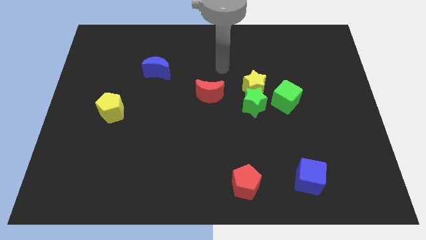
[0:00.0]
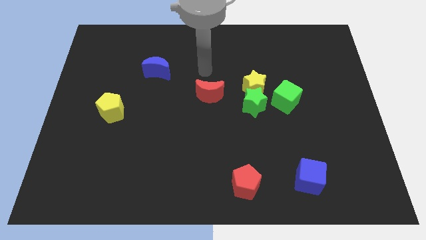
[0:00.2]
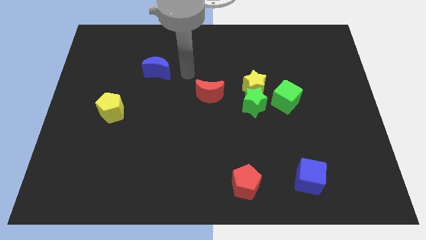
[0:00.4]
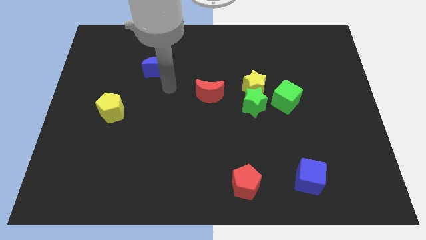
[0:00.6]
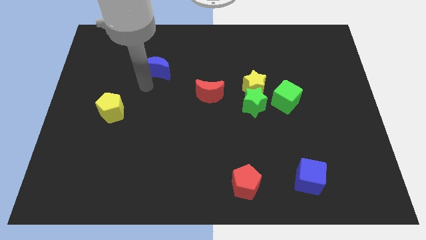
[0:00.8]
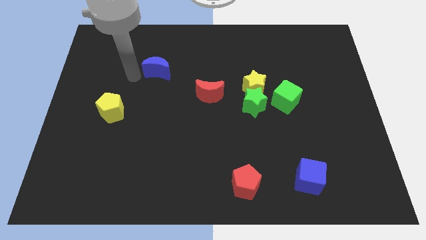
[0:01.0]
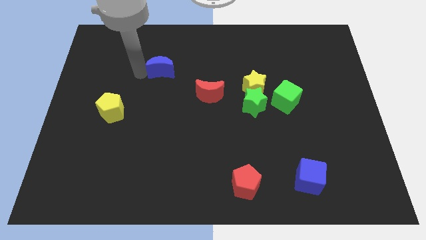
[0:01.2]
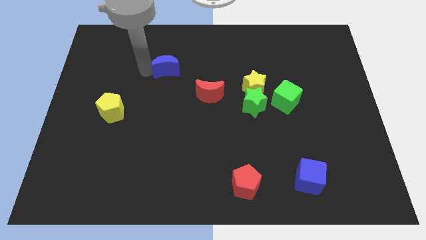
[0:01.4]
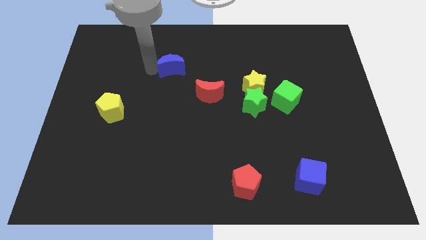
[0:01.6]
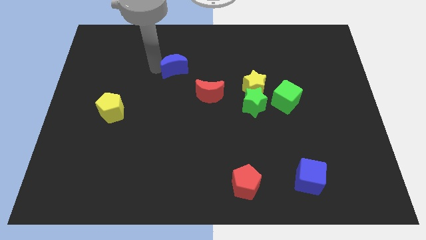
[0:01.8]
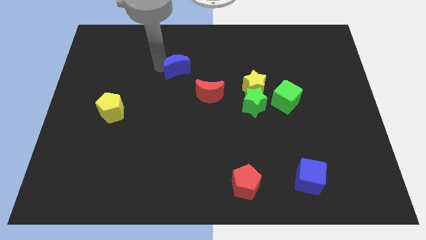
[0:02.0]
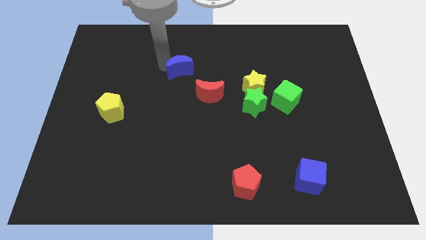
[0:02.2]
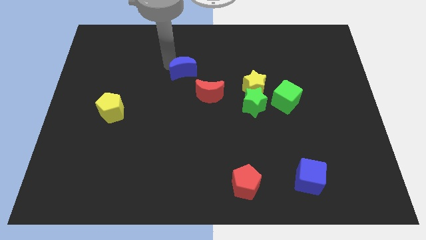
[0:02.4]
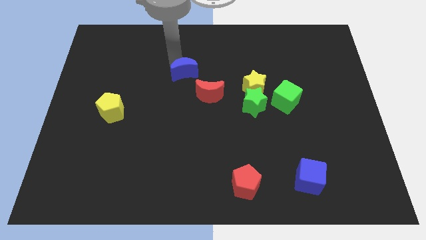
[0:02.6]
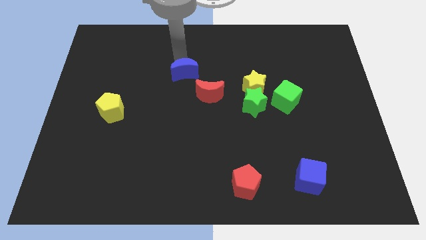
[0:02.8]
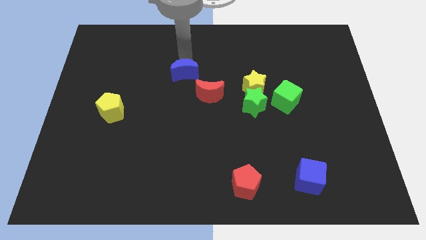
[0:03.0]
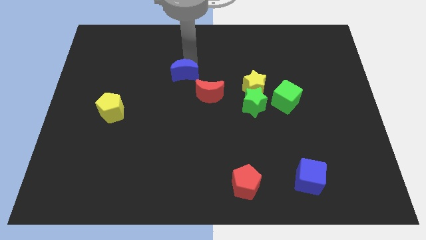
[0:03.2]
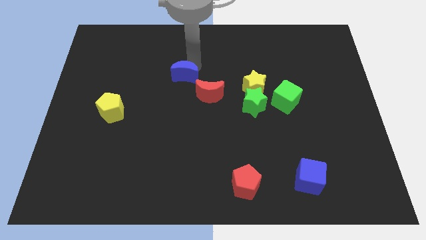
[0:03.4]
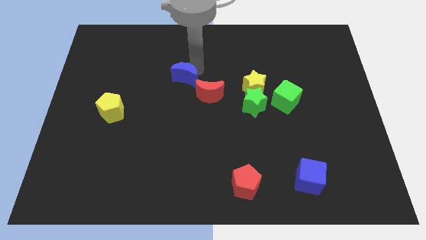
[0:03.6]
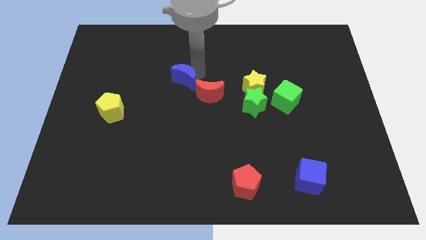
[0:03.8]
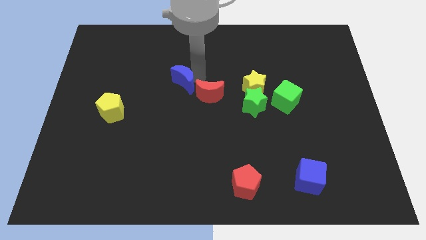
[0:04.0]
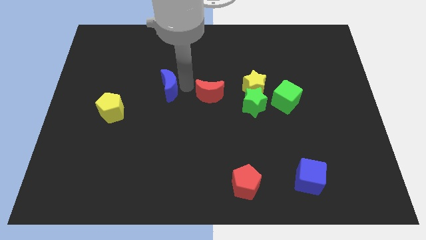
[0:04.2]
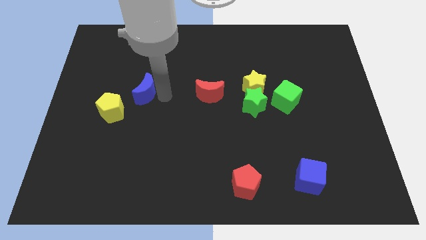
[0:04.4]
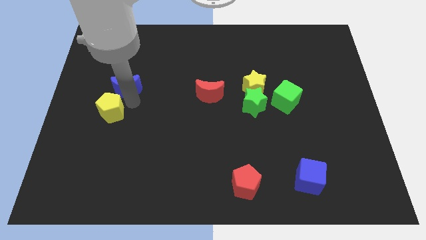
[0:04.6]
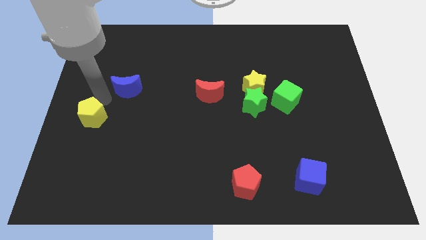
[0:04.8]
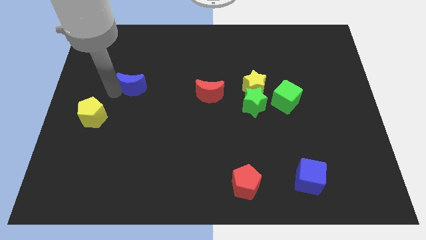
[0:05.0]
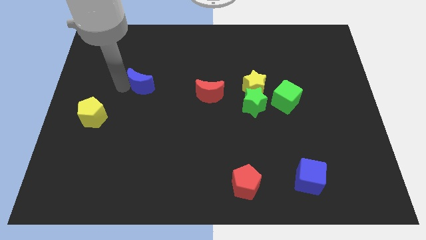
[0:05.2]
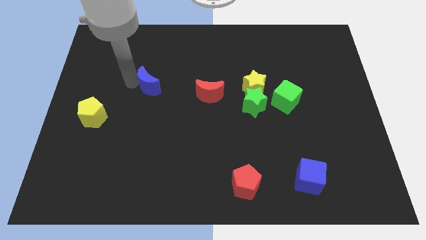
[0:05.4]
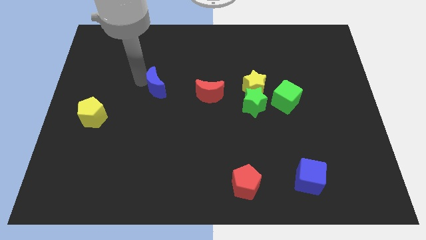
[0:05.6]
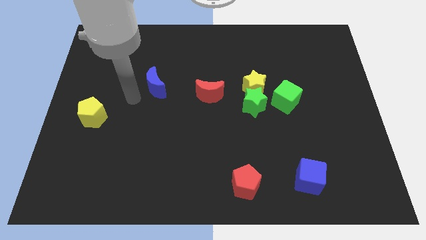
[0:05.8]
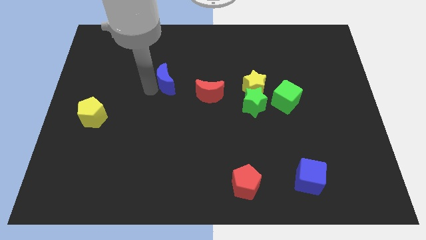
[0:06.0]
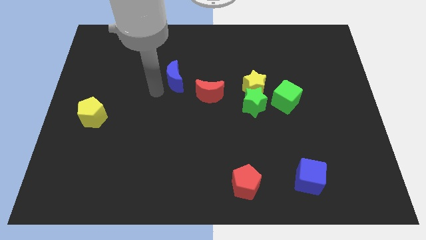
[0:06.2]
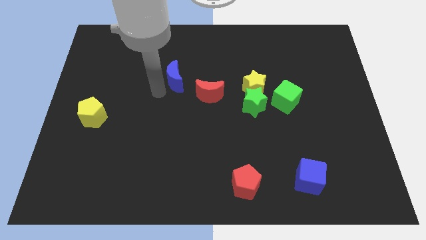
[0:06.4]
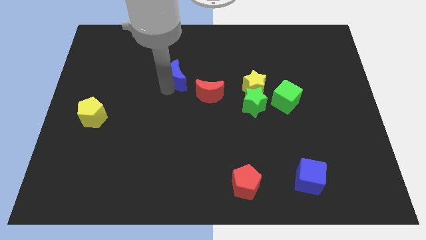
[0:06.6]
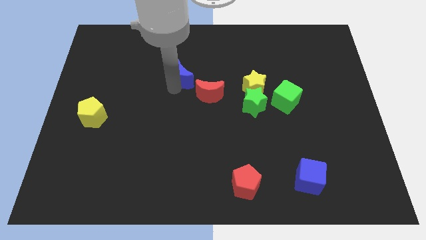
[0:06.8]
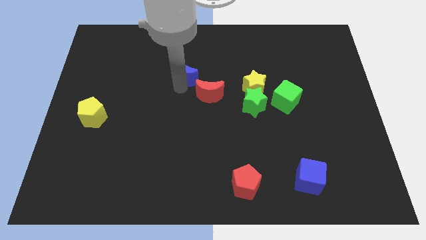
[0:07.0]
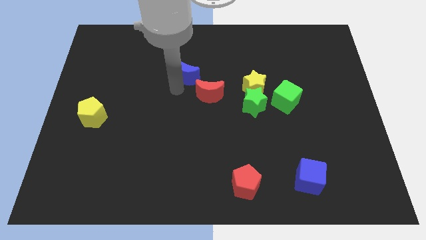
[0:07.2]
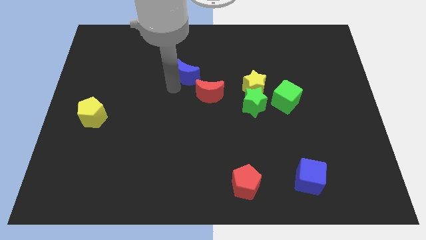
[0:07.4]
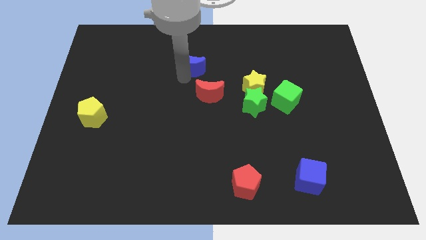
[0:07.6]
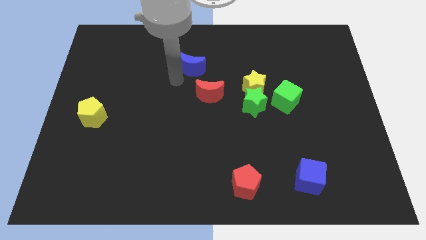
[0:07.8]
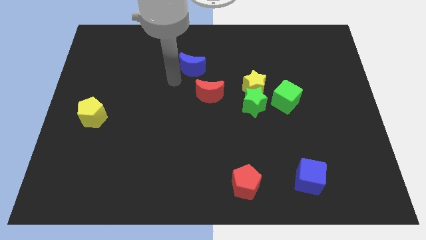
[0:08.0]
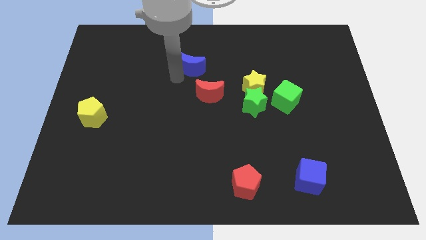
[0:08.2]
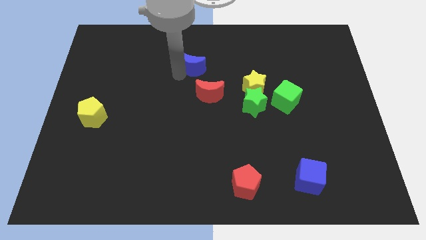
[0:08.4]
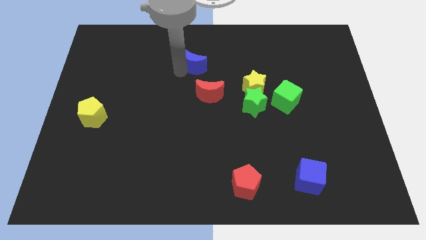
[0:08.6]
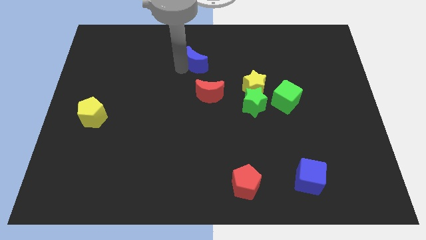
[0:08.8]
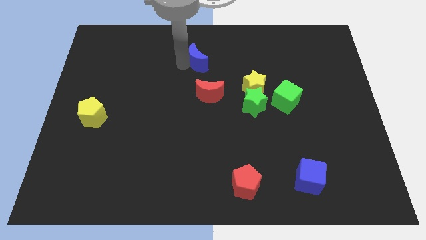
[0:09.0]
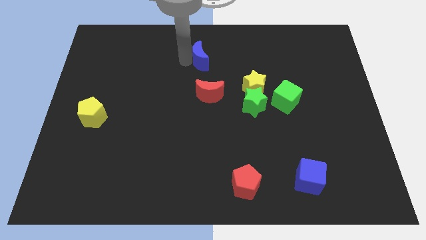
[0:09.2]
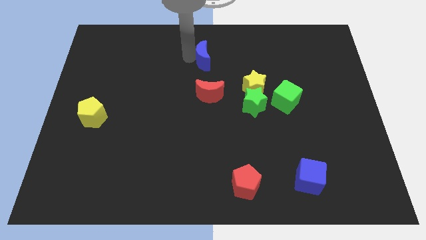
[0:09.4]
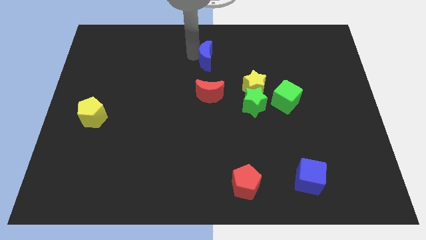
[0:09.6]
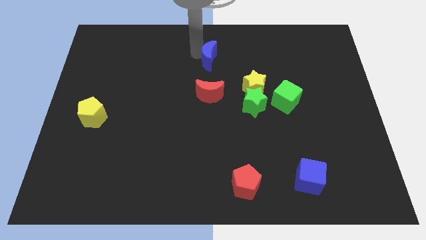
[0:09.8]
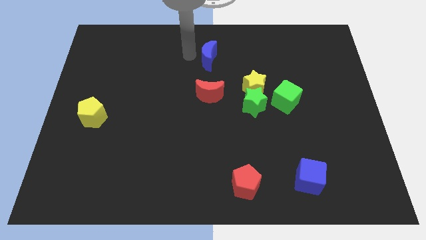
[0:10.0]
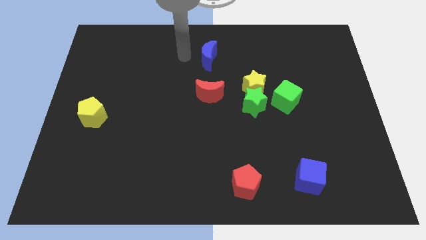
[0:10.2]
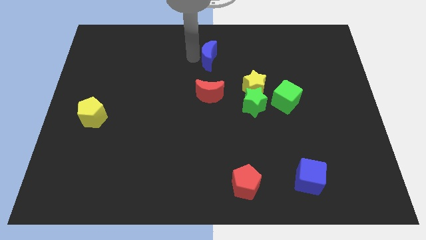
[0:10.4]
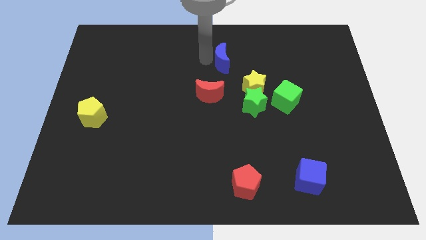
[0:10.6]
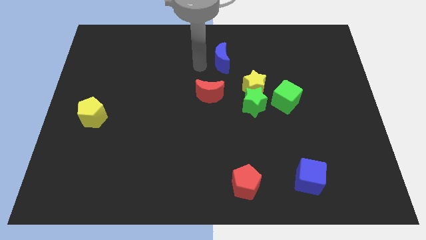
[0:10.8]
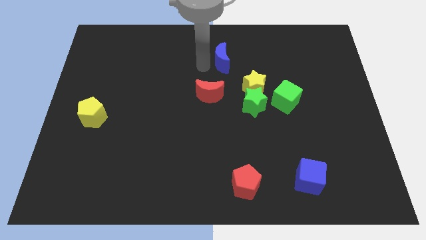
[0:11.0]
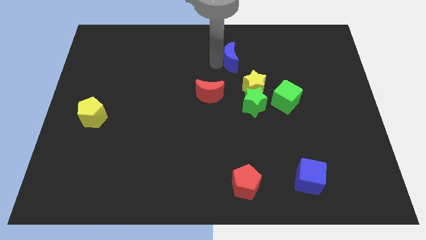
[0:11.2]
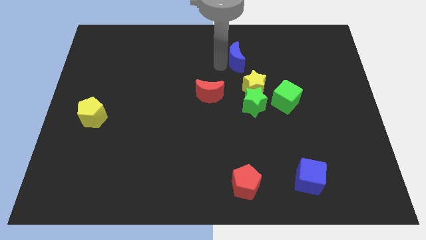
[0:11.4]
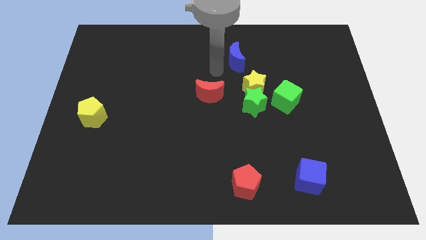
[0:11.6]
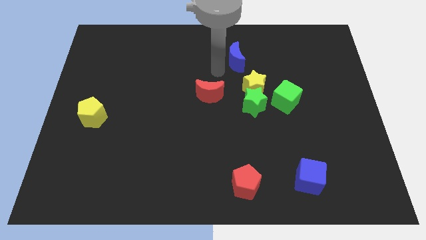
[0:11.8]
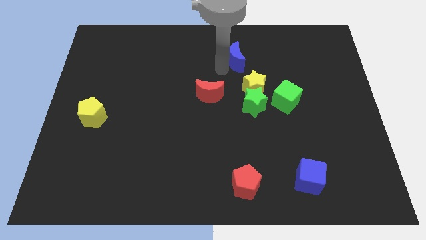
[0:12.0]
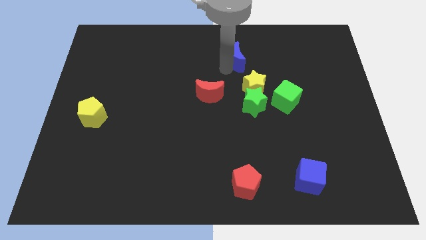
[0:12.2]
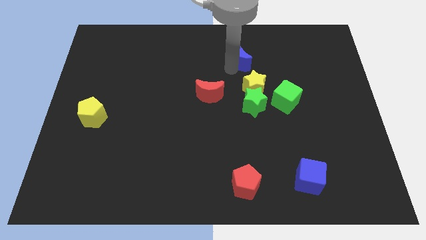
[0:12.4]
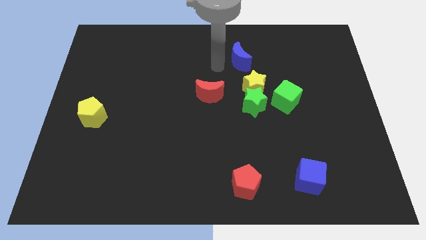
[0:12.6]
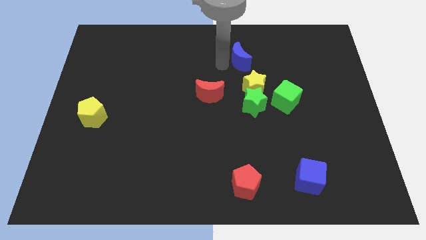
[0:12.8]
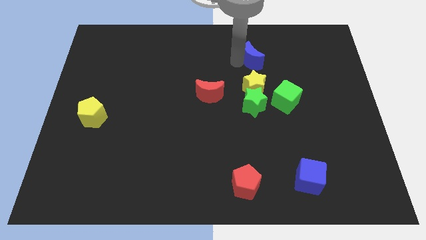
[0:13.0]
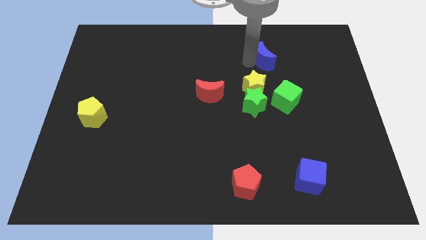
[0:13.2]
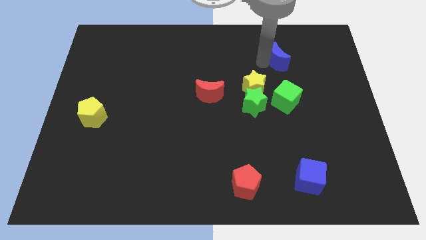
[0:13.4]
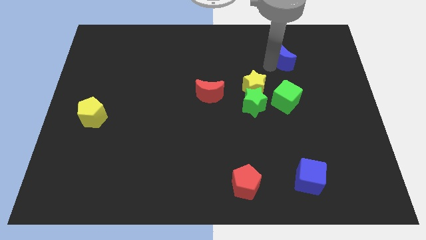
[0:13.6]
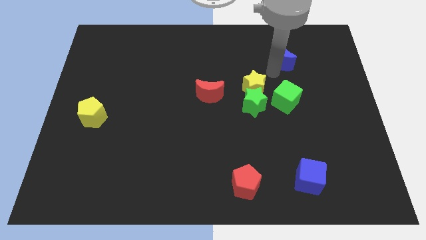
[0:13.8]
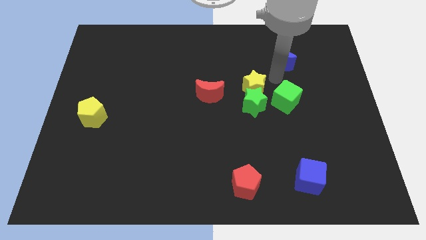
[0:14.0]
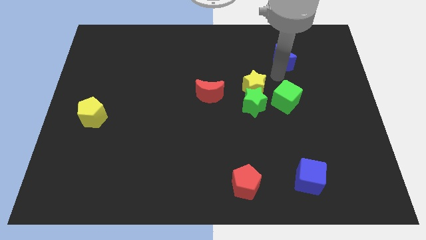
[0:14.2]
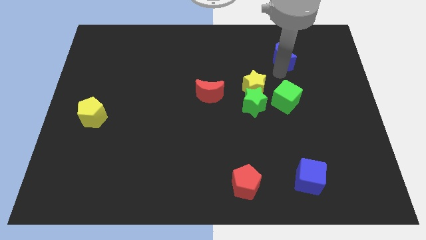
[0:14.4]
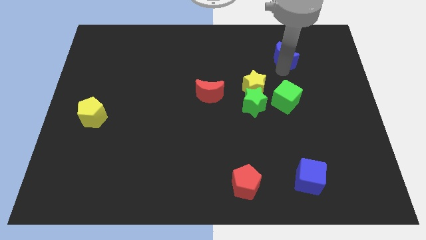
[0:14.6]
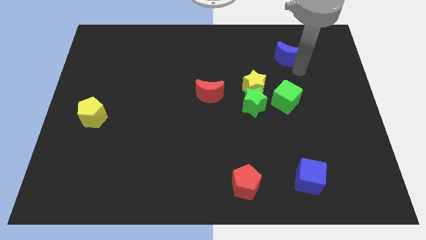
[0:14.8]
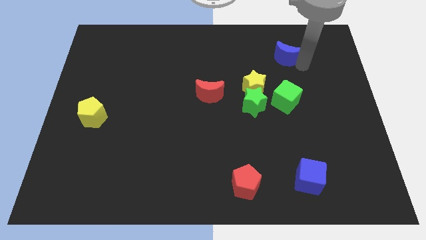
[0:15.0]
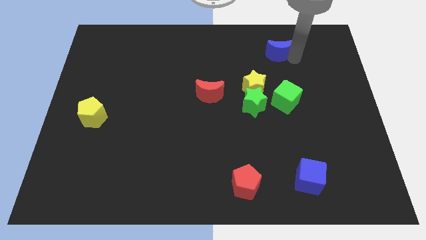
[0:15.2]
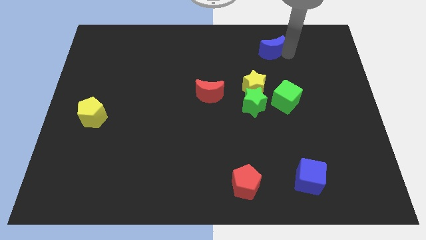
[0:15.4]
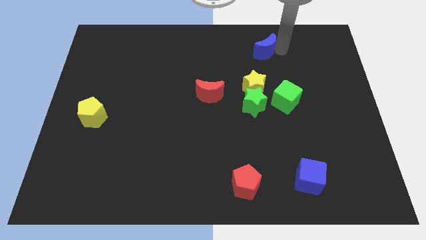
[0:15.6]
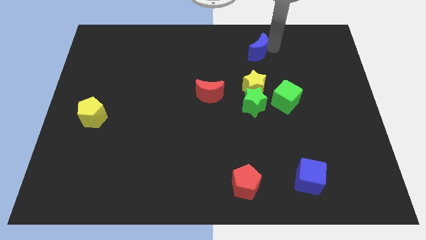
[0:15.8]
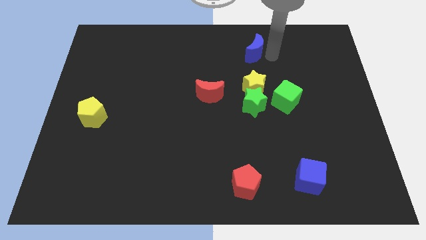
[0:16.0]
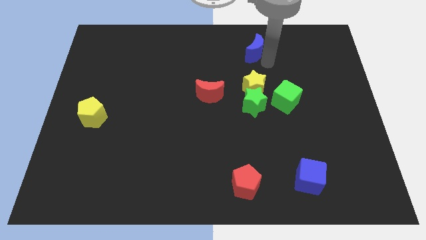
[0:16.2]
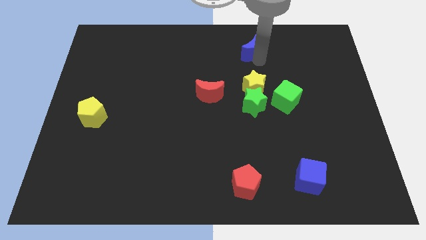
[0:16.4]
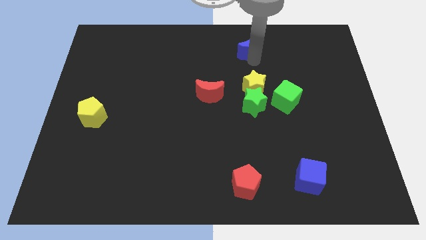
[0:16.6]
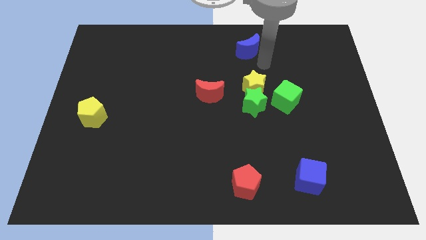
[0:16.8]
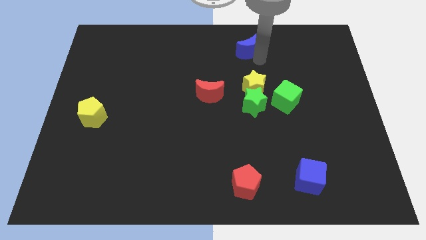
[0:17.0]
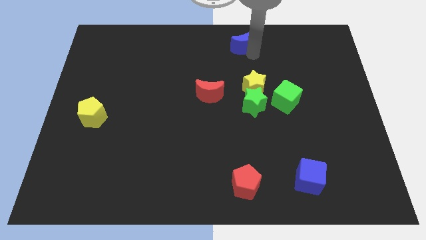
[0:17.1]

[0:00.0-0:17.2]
push the blue moon to the top
